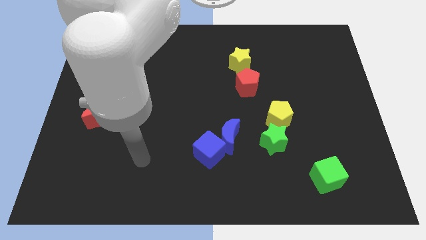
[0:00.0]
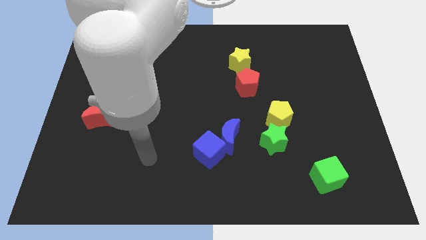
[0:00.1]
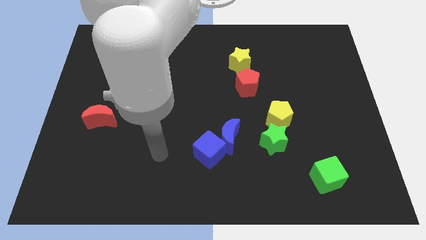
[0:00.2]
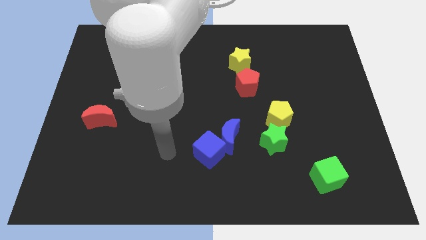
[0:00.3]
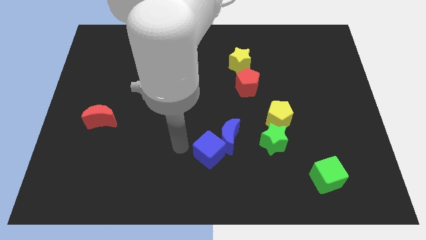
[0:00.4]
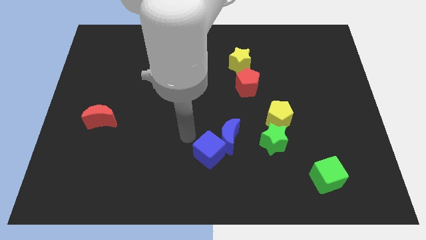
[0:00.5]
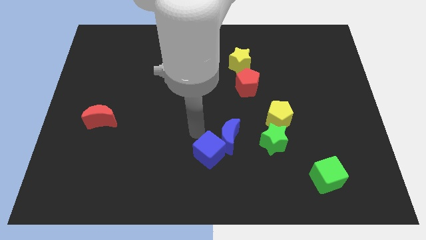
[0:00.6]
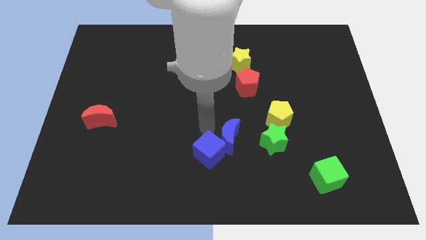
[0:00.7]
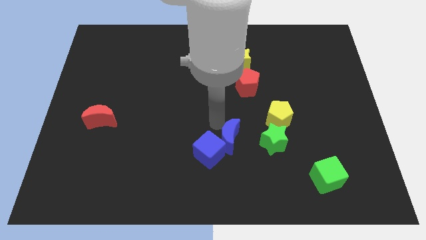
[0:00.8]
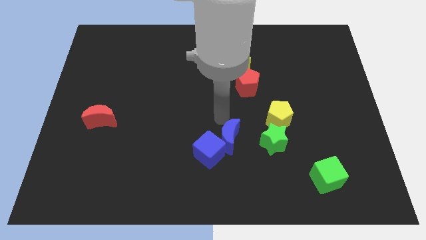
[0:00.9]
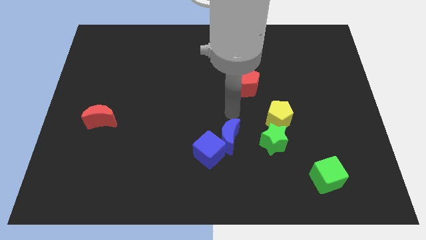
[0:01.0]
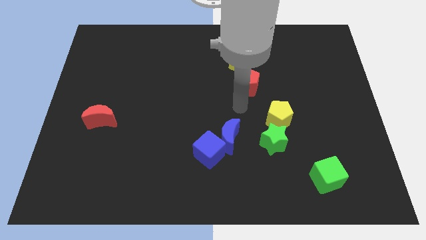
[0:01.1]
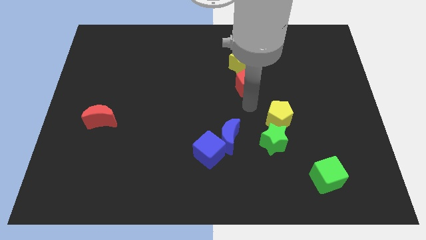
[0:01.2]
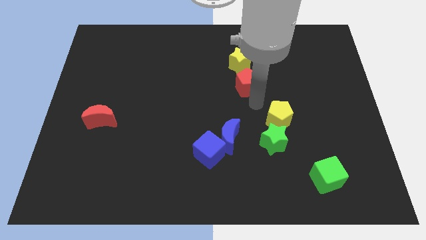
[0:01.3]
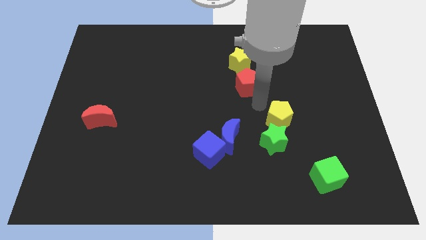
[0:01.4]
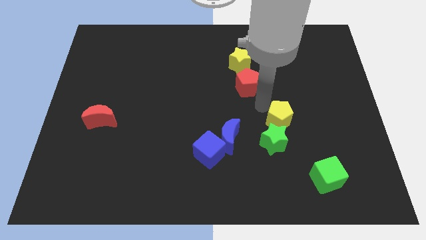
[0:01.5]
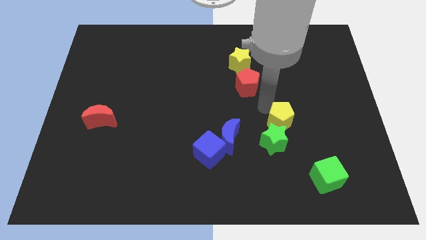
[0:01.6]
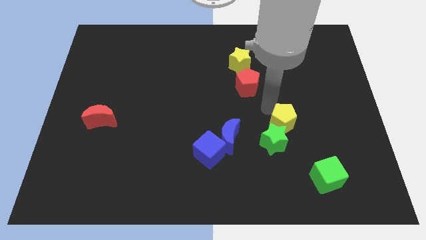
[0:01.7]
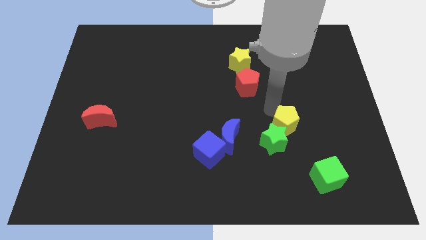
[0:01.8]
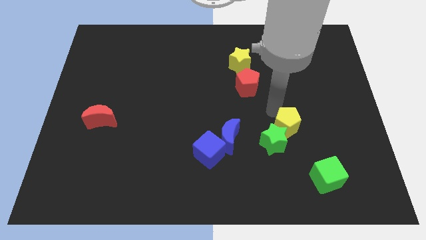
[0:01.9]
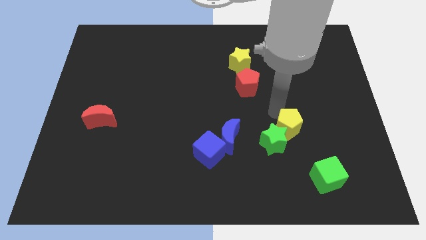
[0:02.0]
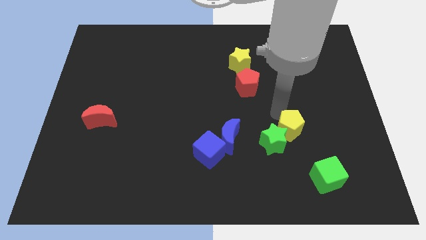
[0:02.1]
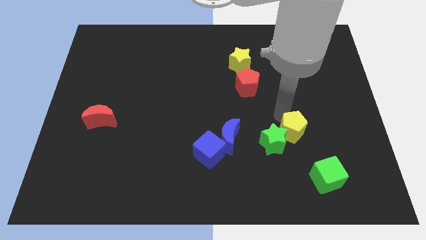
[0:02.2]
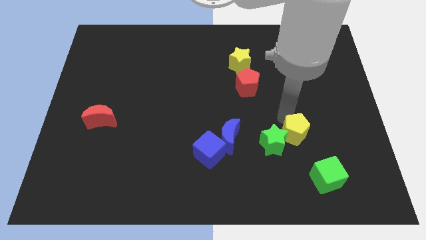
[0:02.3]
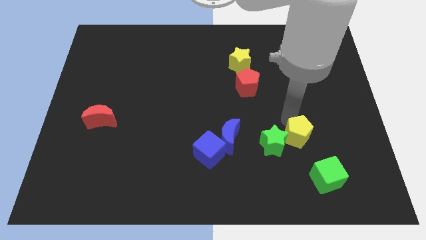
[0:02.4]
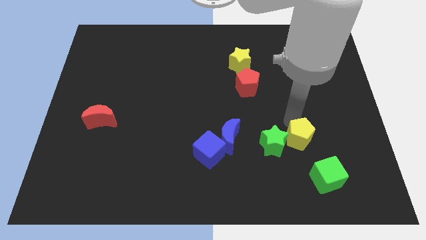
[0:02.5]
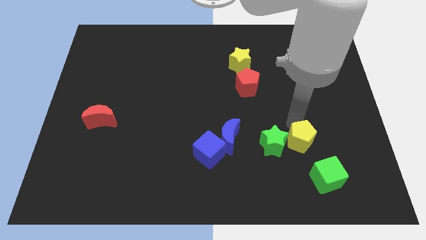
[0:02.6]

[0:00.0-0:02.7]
slide the yellow pentagon down and right diagonally a little bit

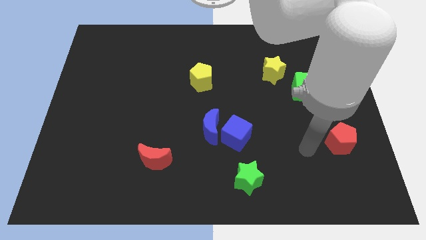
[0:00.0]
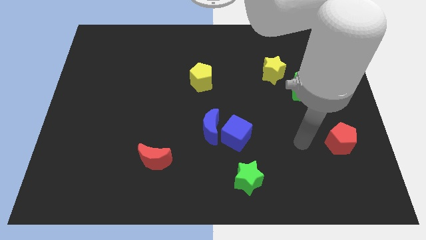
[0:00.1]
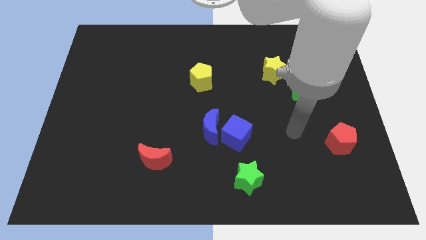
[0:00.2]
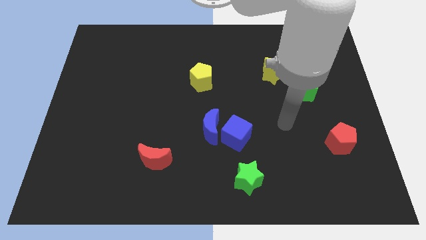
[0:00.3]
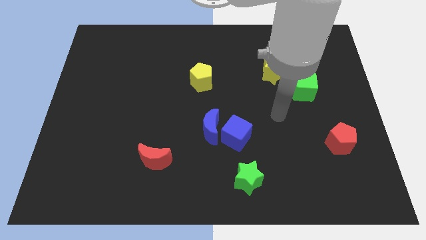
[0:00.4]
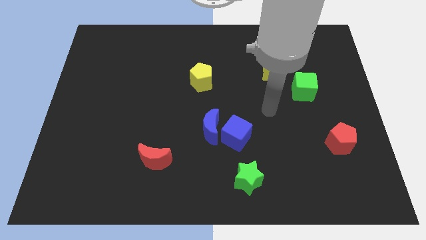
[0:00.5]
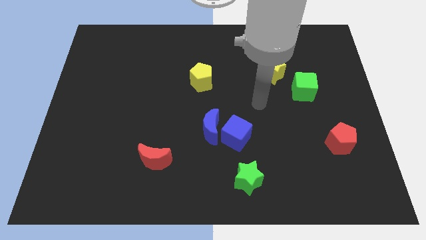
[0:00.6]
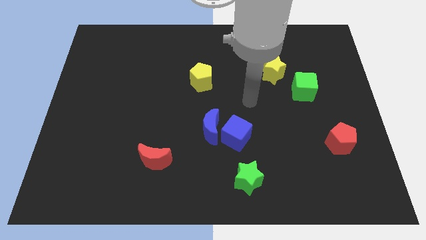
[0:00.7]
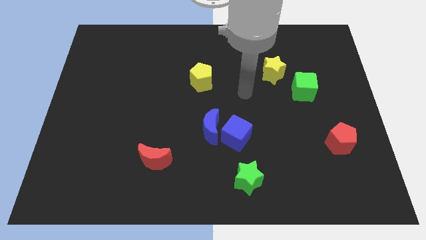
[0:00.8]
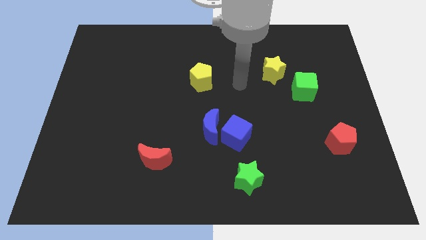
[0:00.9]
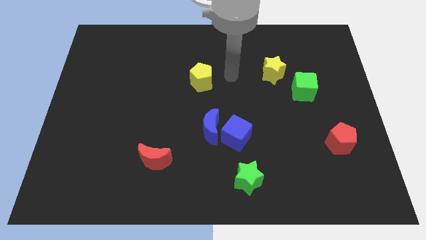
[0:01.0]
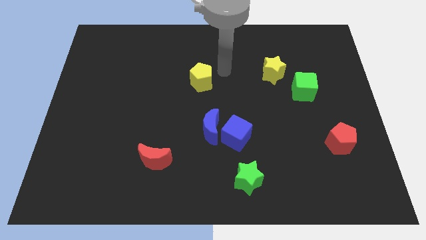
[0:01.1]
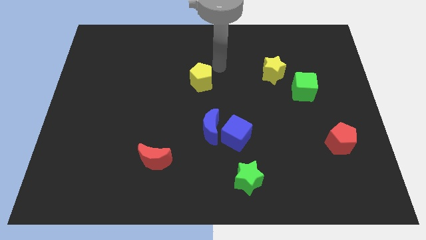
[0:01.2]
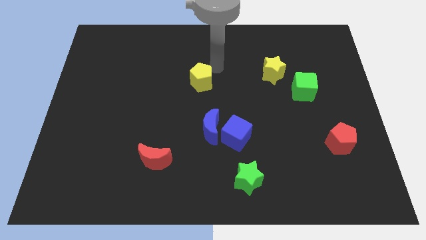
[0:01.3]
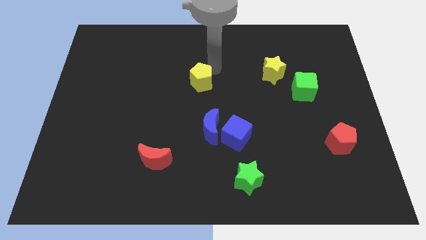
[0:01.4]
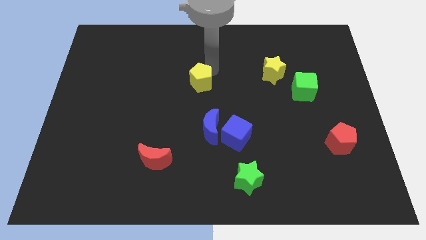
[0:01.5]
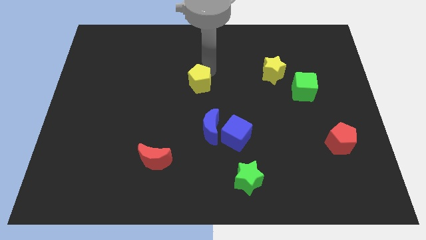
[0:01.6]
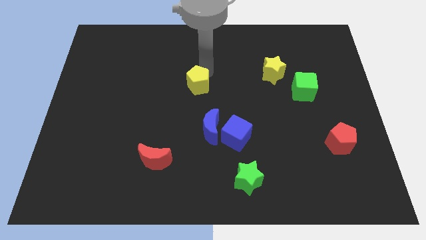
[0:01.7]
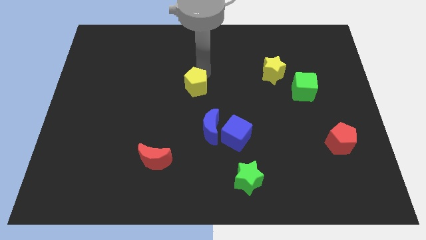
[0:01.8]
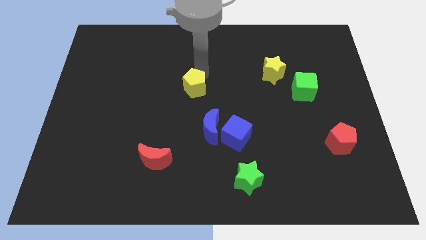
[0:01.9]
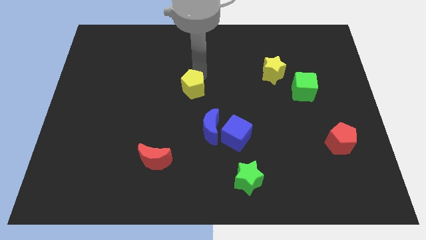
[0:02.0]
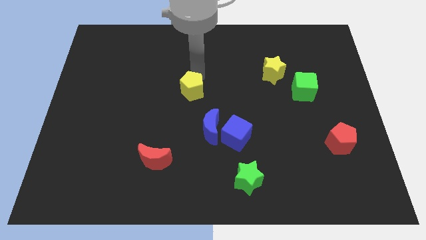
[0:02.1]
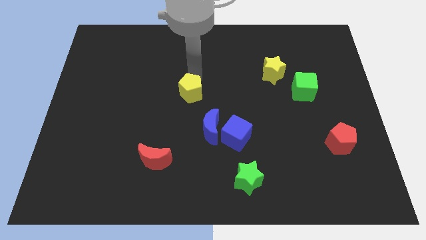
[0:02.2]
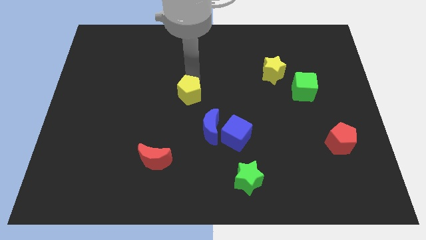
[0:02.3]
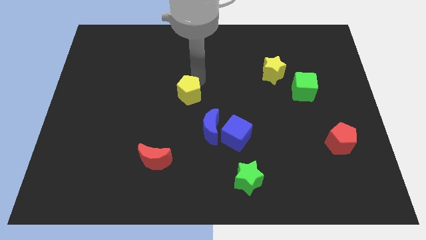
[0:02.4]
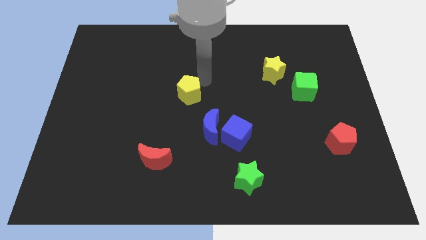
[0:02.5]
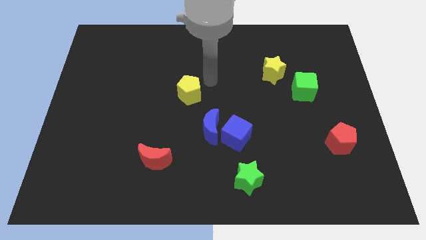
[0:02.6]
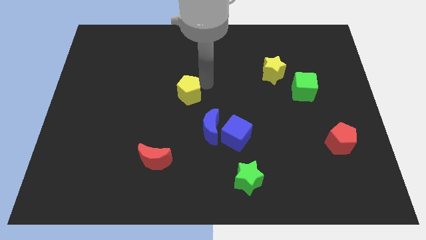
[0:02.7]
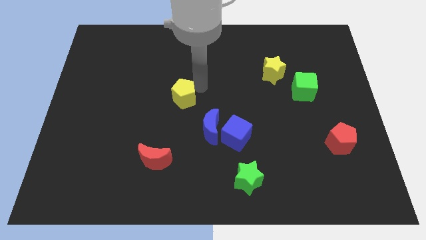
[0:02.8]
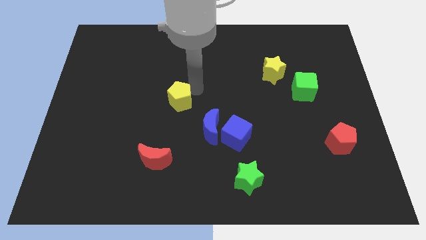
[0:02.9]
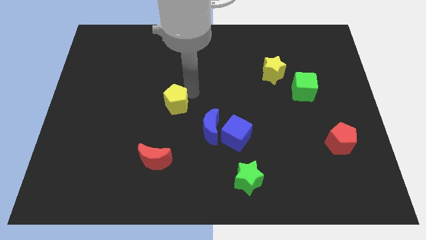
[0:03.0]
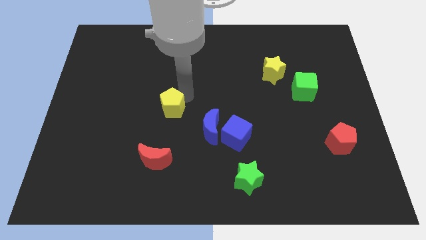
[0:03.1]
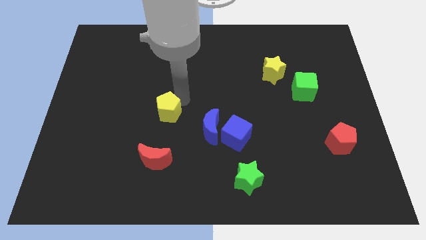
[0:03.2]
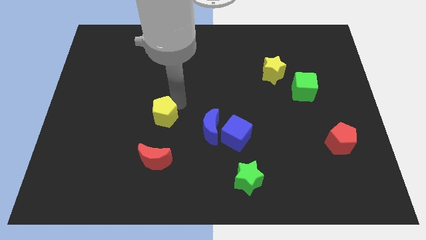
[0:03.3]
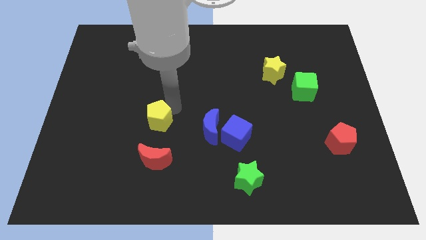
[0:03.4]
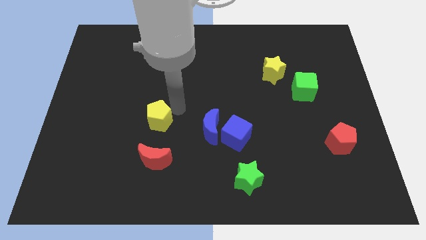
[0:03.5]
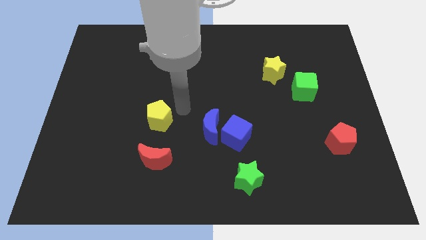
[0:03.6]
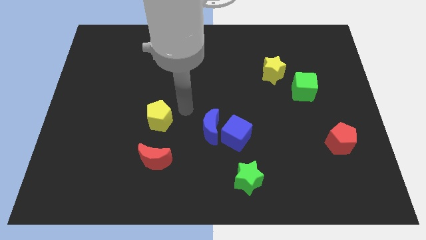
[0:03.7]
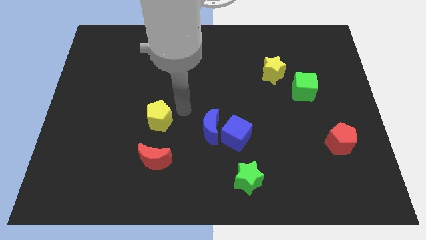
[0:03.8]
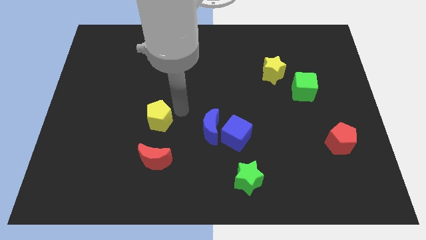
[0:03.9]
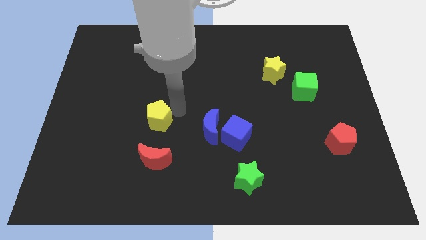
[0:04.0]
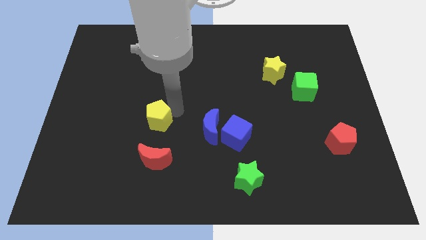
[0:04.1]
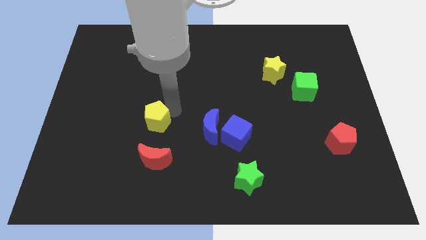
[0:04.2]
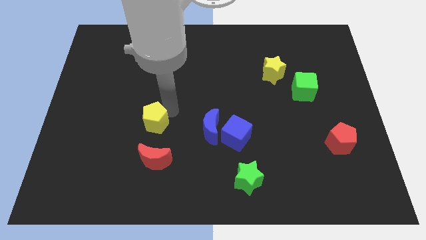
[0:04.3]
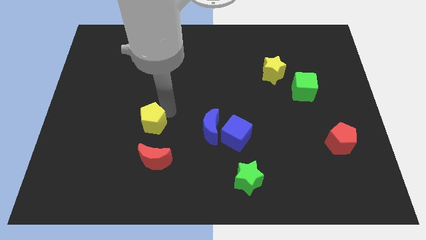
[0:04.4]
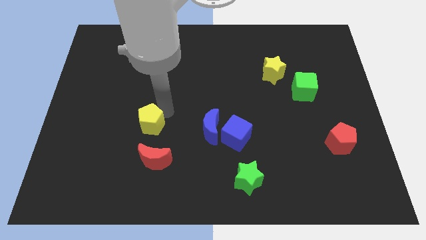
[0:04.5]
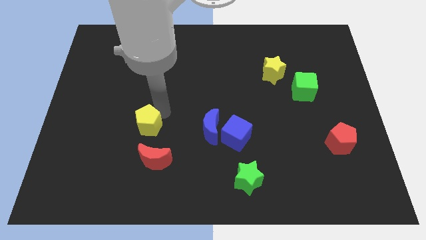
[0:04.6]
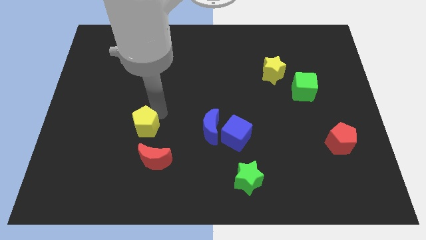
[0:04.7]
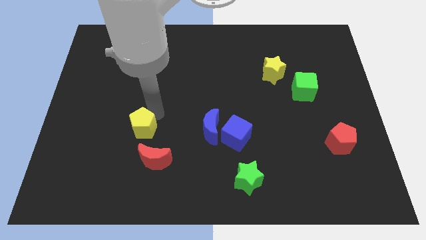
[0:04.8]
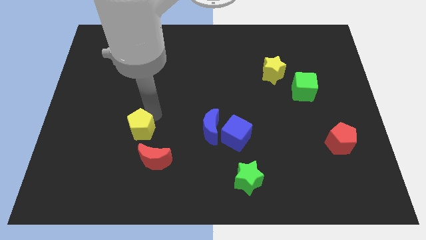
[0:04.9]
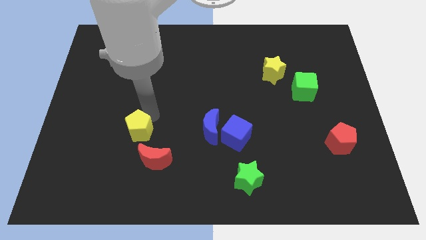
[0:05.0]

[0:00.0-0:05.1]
move the yellow pentagon downwards and to the left

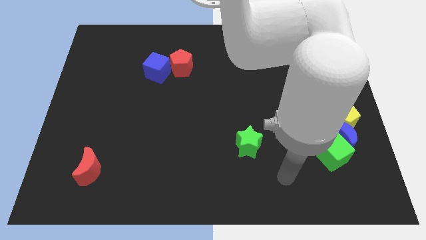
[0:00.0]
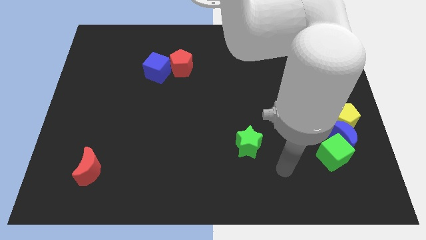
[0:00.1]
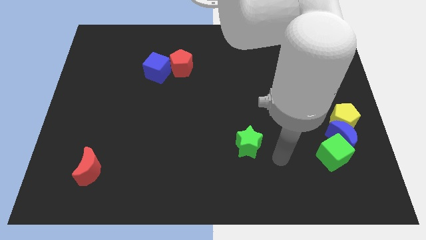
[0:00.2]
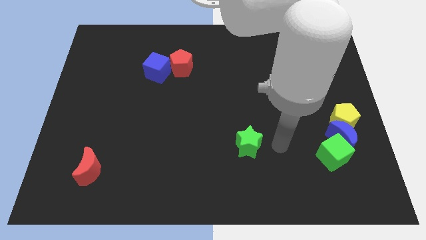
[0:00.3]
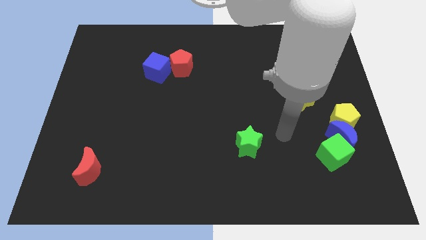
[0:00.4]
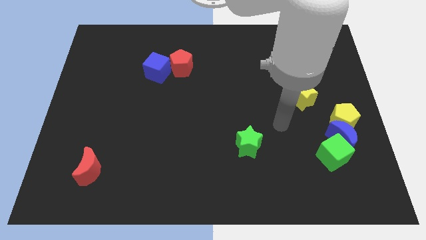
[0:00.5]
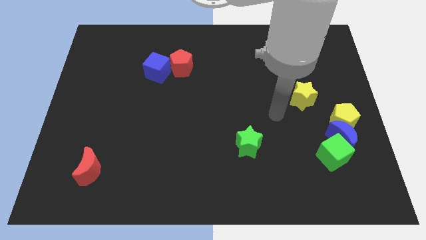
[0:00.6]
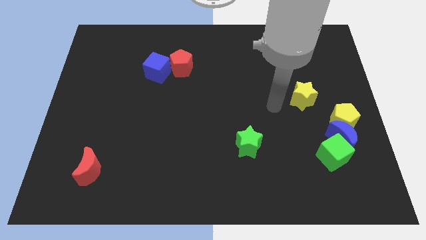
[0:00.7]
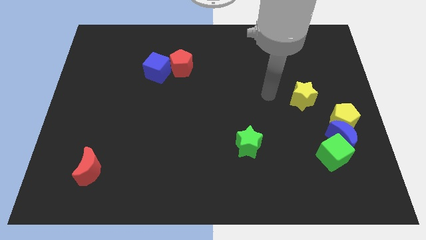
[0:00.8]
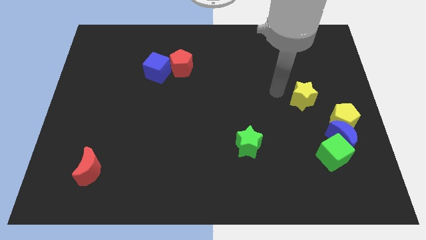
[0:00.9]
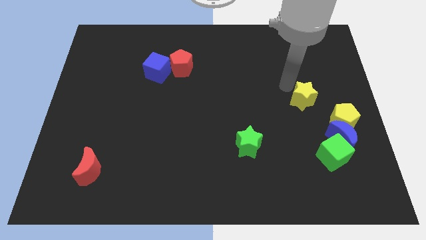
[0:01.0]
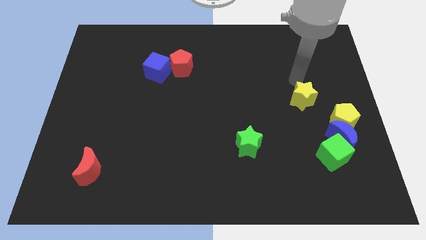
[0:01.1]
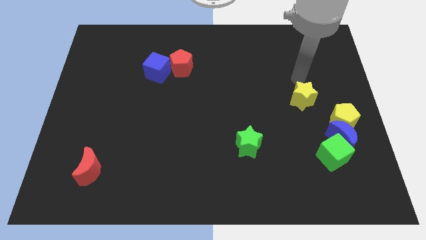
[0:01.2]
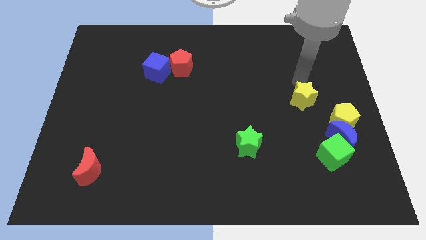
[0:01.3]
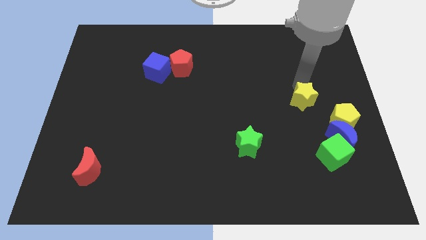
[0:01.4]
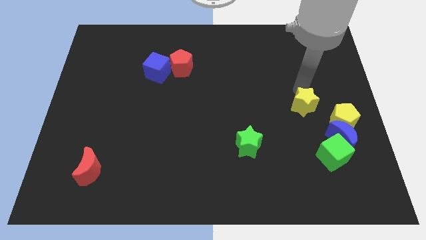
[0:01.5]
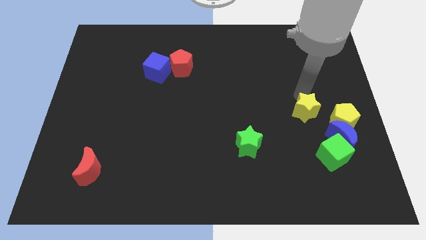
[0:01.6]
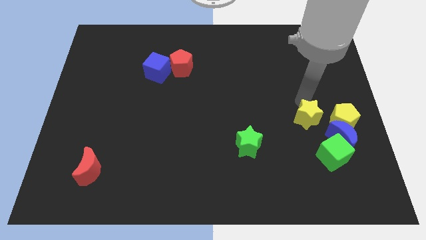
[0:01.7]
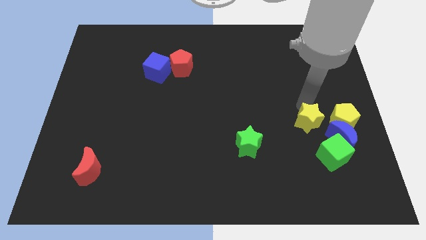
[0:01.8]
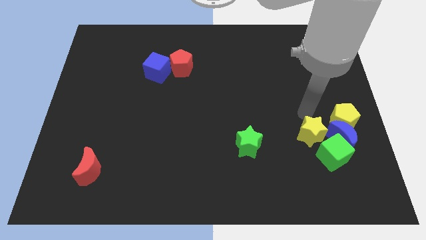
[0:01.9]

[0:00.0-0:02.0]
push the yellow star downwards a little
